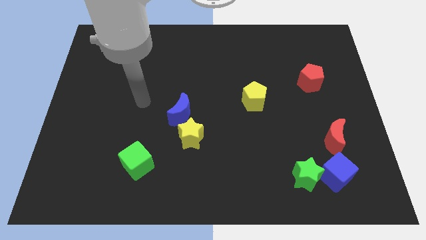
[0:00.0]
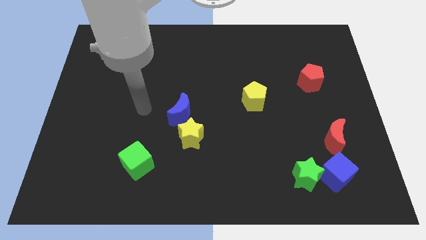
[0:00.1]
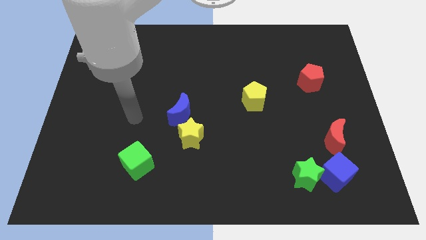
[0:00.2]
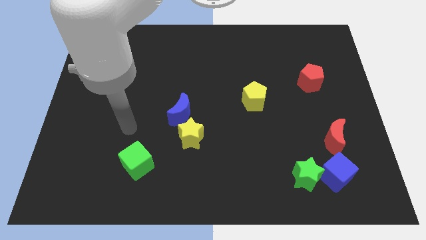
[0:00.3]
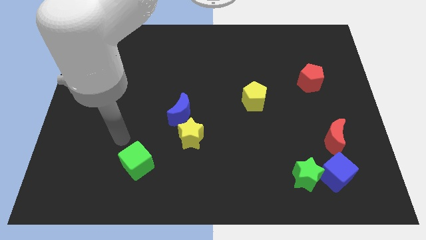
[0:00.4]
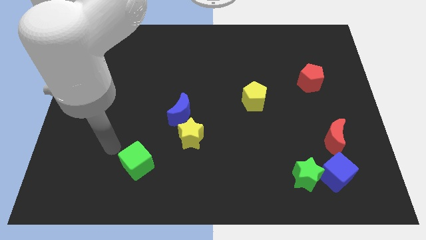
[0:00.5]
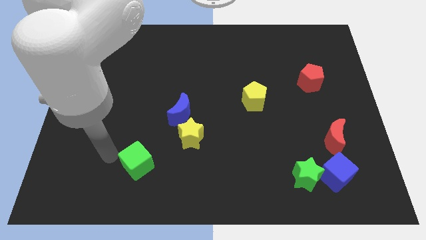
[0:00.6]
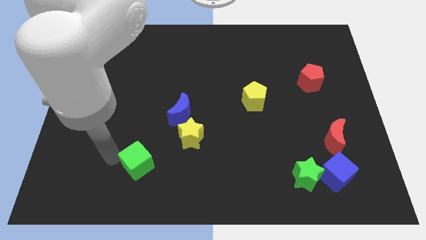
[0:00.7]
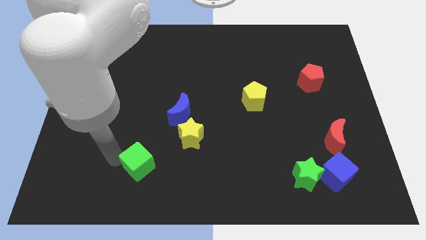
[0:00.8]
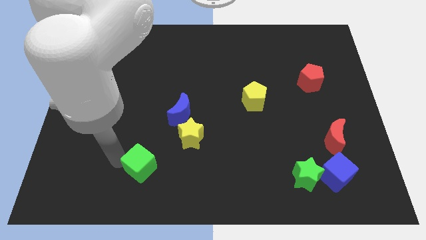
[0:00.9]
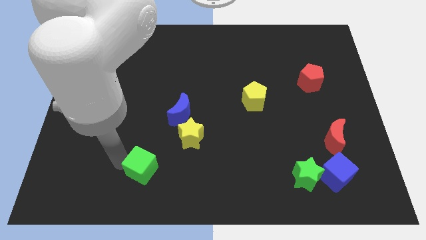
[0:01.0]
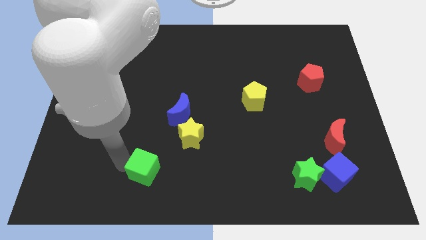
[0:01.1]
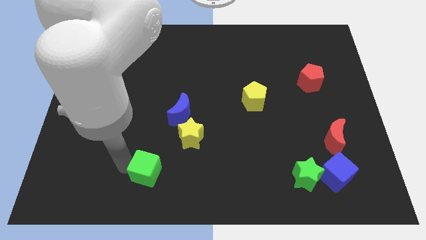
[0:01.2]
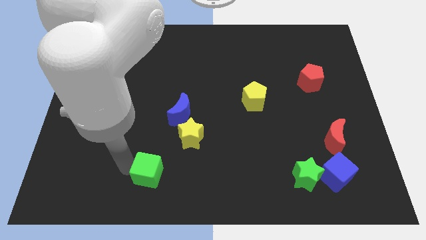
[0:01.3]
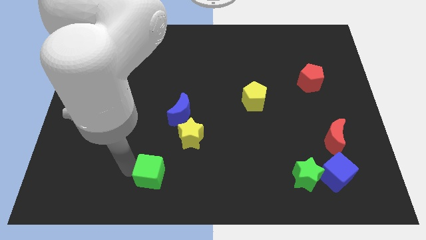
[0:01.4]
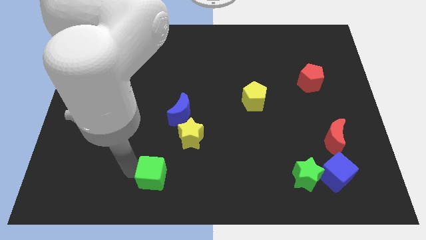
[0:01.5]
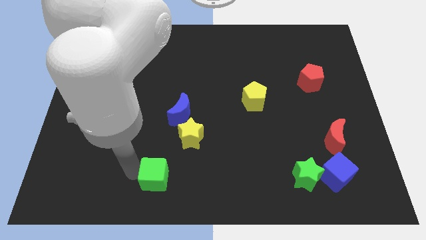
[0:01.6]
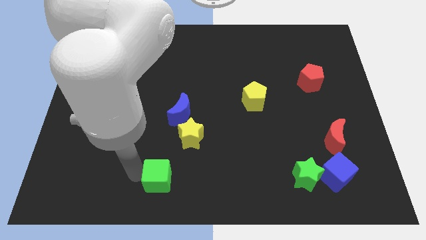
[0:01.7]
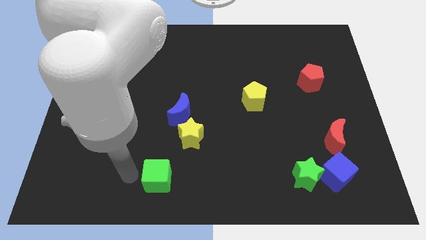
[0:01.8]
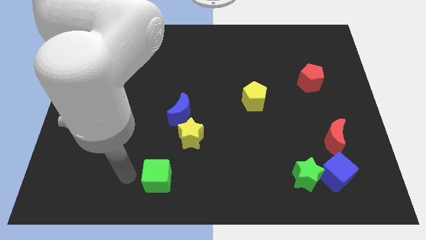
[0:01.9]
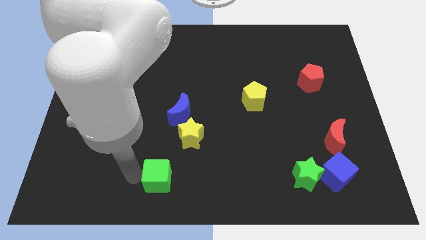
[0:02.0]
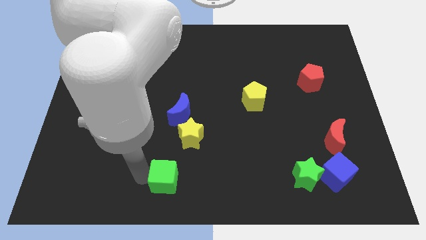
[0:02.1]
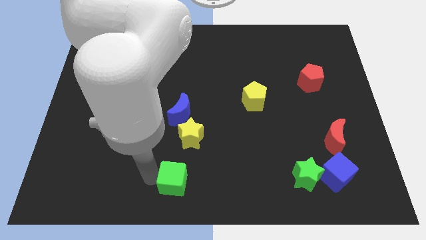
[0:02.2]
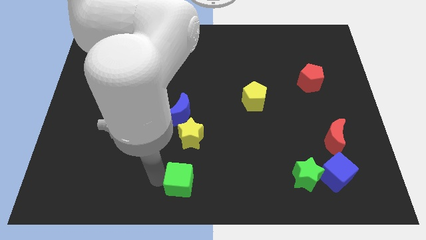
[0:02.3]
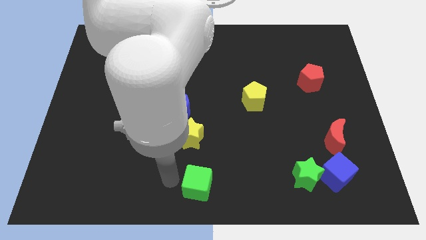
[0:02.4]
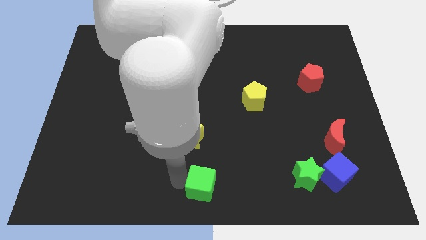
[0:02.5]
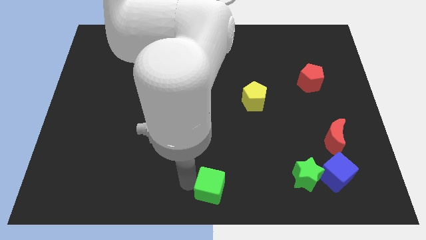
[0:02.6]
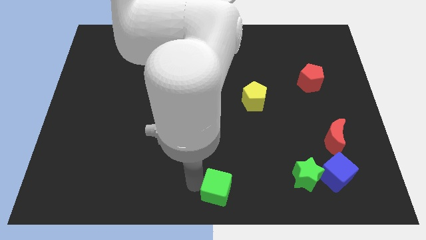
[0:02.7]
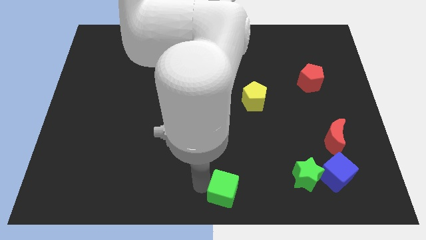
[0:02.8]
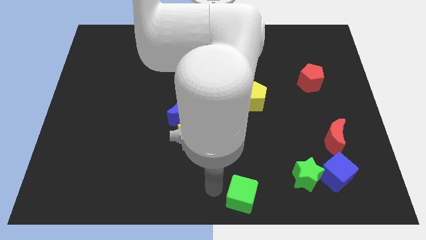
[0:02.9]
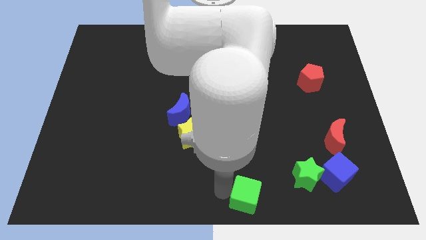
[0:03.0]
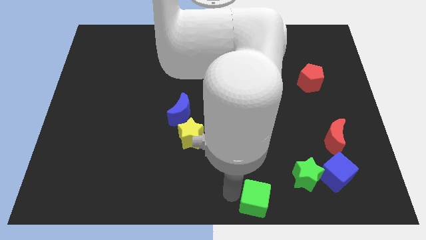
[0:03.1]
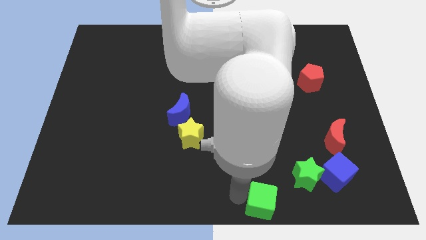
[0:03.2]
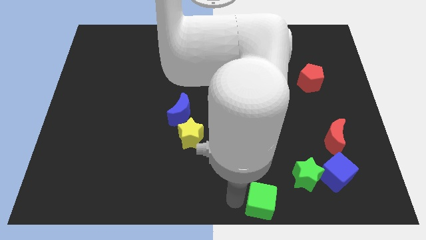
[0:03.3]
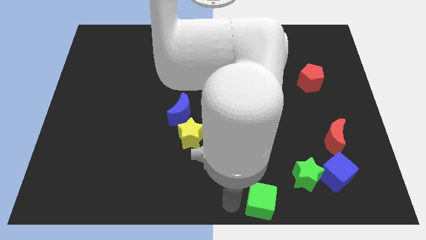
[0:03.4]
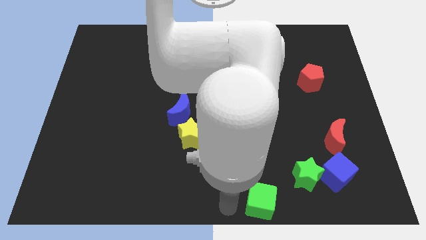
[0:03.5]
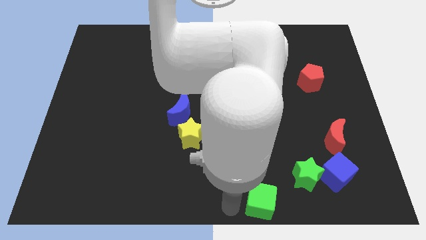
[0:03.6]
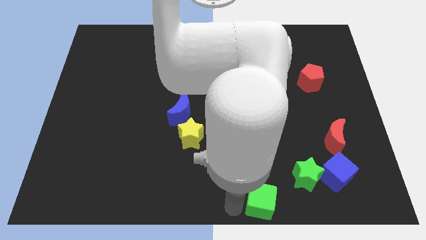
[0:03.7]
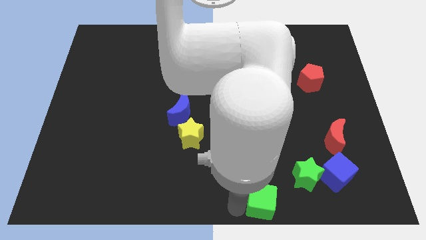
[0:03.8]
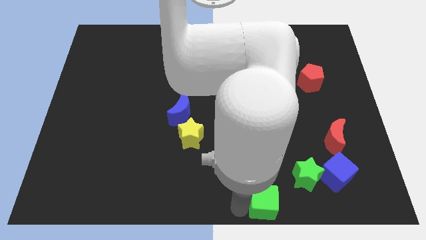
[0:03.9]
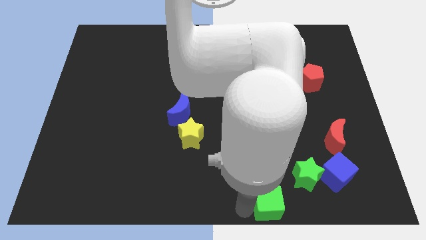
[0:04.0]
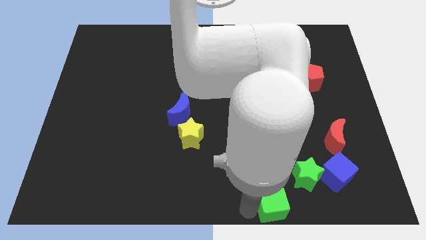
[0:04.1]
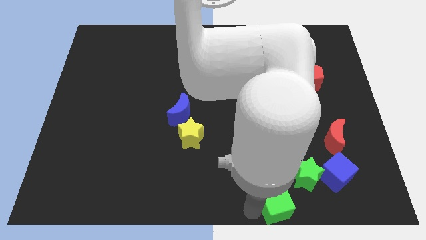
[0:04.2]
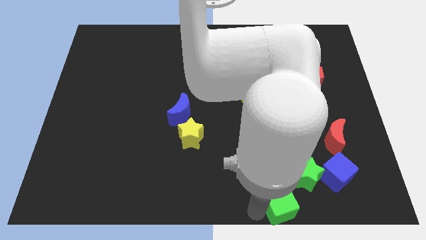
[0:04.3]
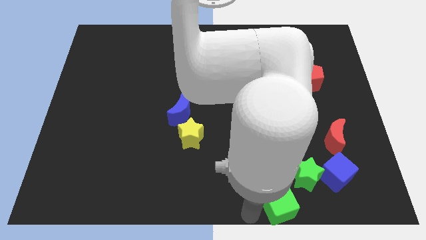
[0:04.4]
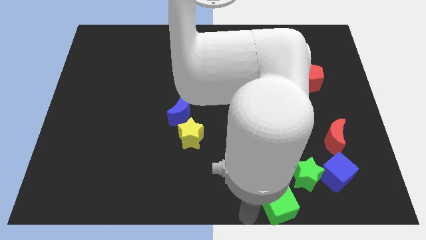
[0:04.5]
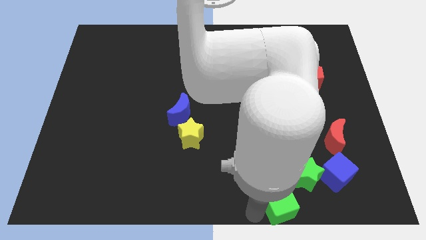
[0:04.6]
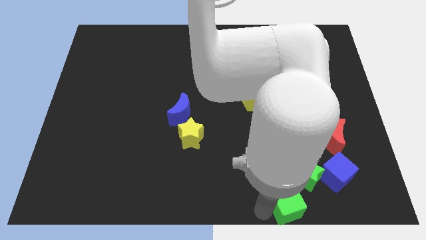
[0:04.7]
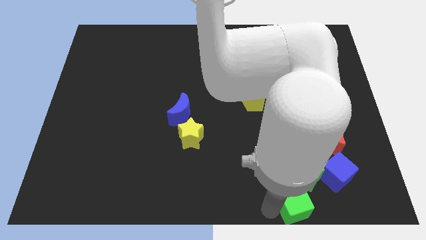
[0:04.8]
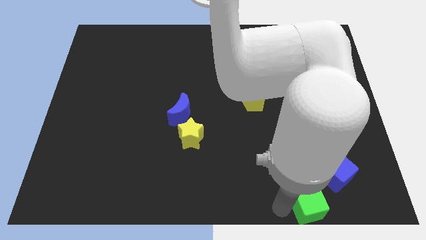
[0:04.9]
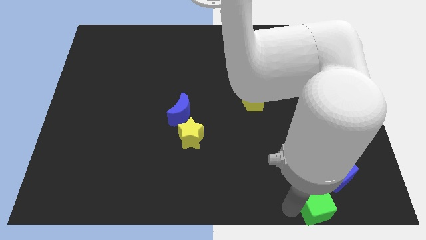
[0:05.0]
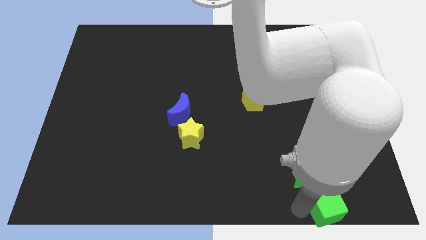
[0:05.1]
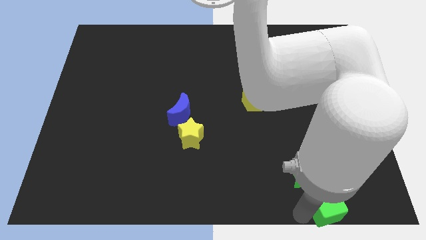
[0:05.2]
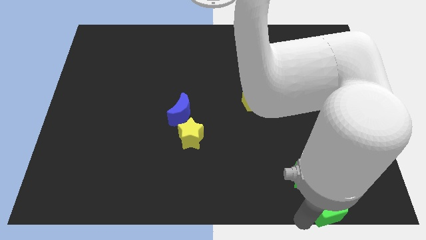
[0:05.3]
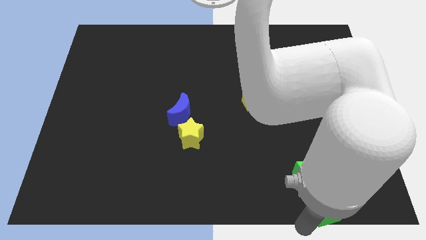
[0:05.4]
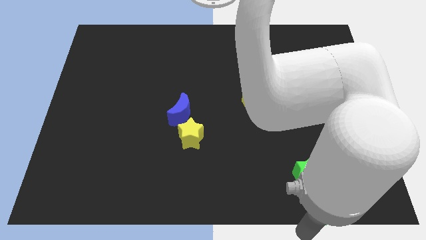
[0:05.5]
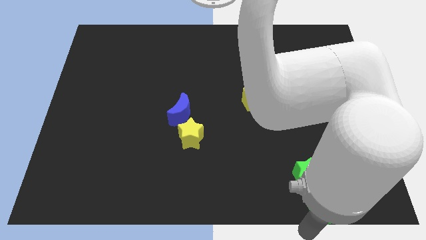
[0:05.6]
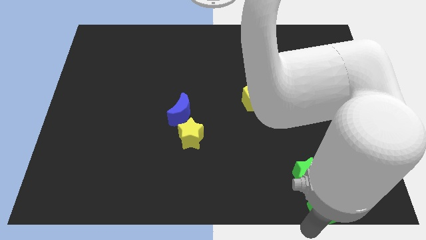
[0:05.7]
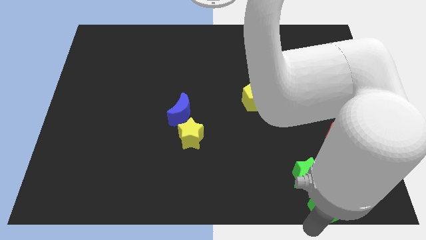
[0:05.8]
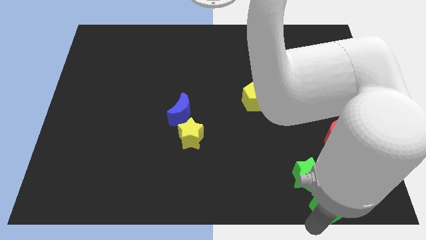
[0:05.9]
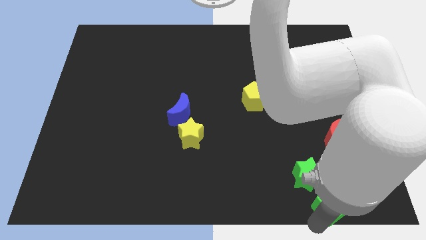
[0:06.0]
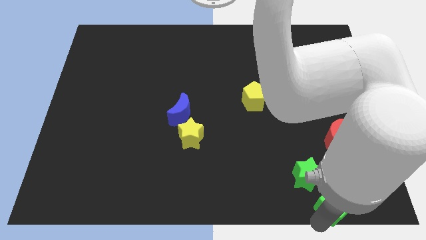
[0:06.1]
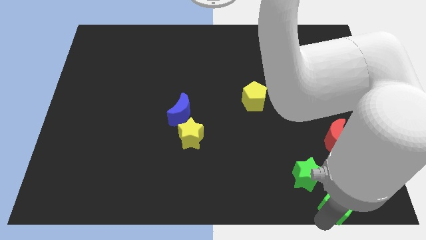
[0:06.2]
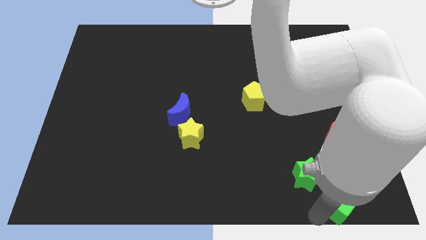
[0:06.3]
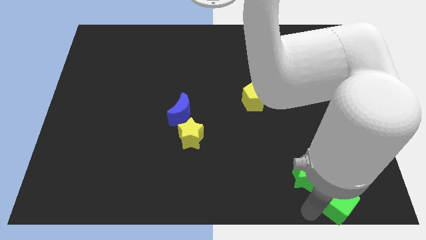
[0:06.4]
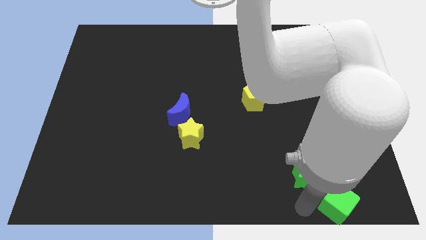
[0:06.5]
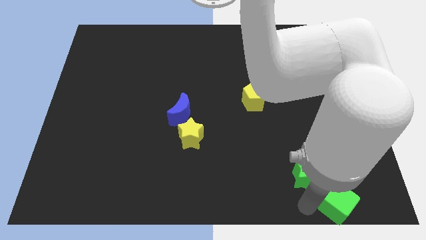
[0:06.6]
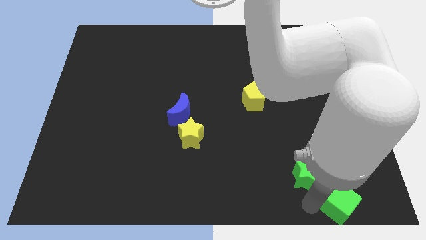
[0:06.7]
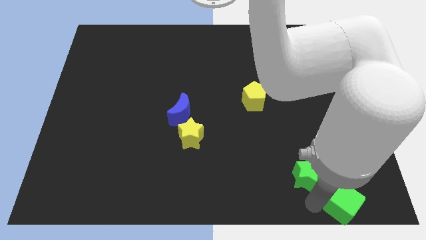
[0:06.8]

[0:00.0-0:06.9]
slide the green cube to the bottom right
